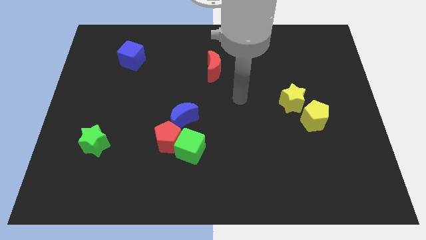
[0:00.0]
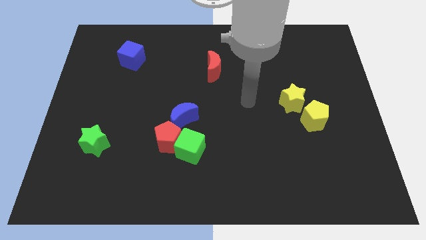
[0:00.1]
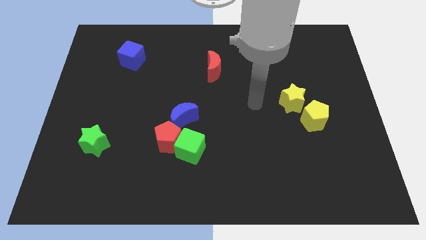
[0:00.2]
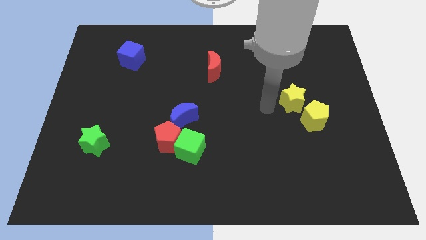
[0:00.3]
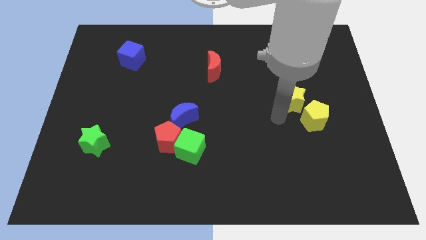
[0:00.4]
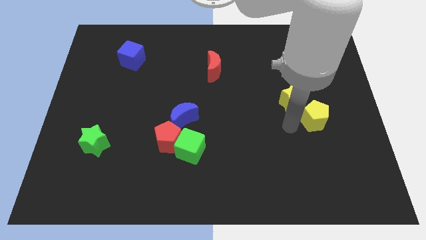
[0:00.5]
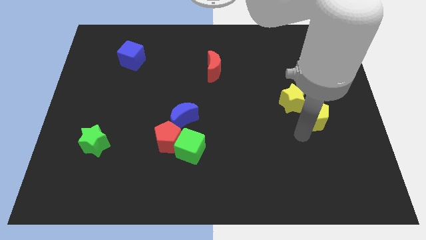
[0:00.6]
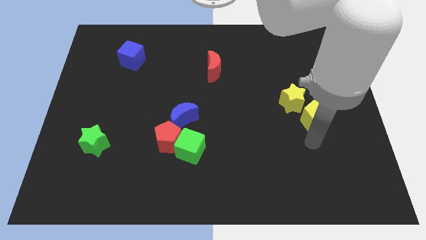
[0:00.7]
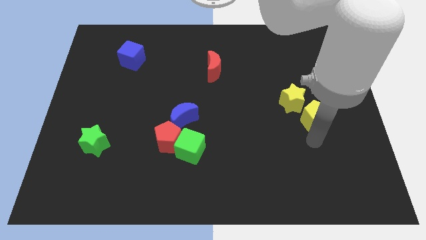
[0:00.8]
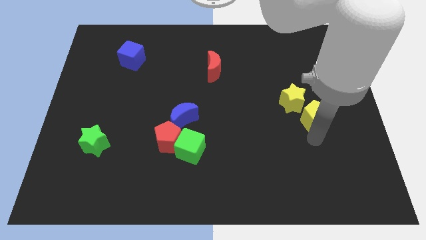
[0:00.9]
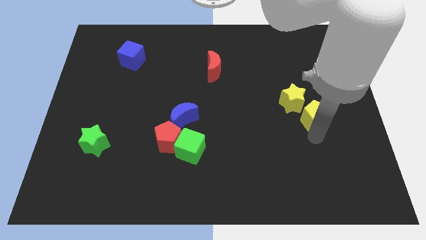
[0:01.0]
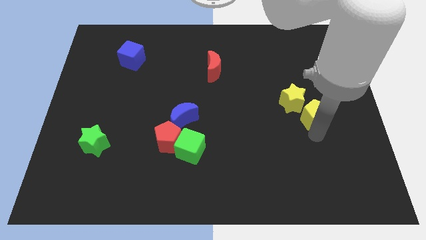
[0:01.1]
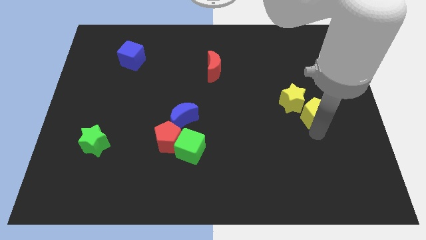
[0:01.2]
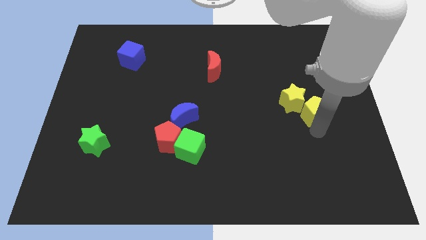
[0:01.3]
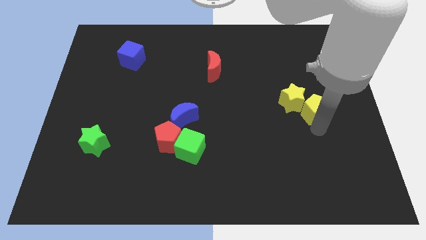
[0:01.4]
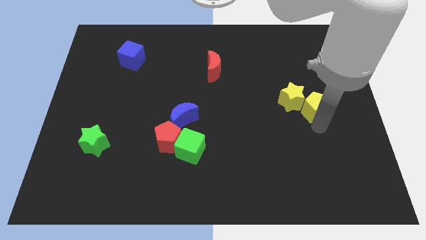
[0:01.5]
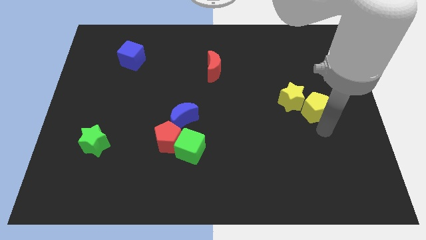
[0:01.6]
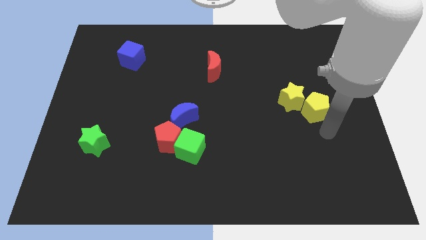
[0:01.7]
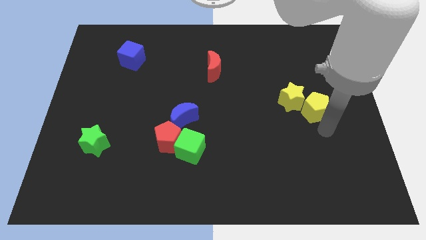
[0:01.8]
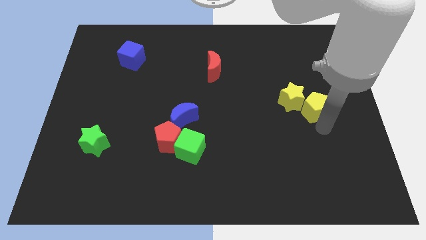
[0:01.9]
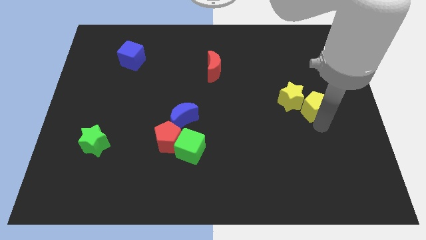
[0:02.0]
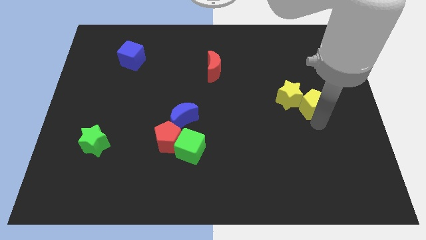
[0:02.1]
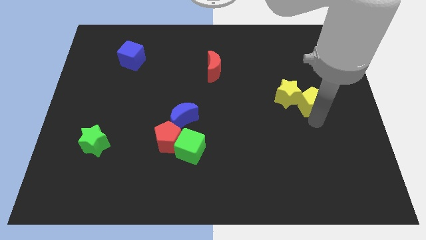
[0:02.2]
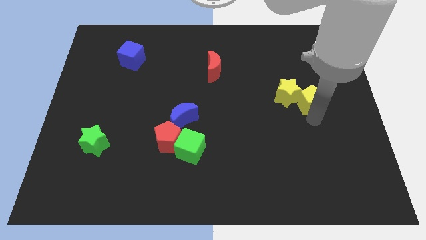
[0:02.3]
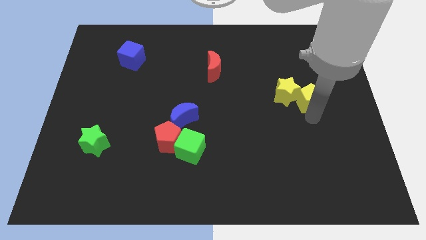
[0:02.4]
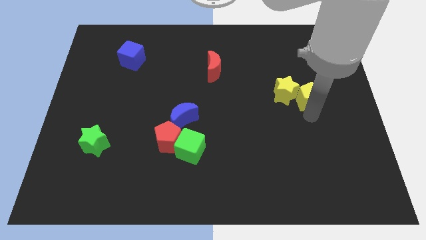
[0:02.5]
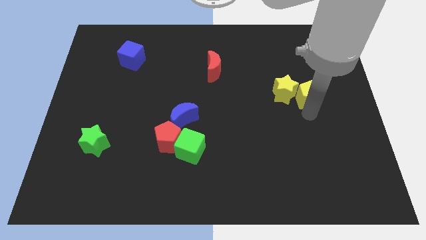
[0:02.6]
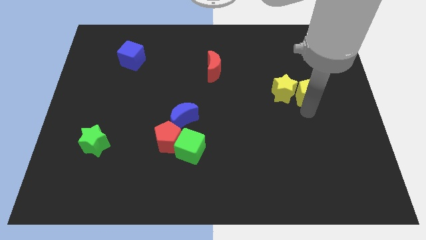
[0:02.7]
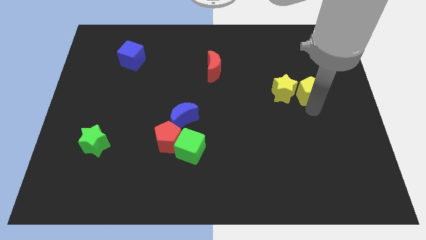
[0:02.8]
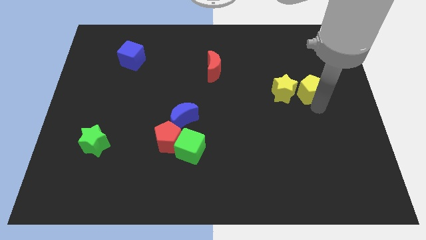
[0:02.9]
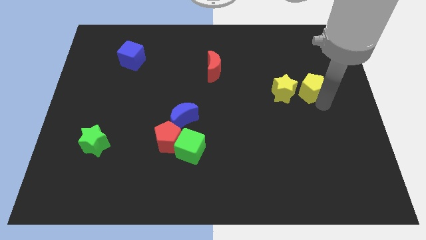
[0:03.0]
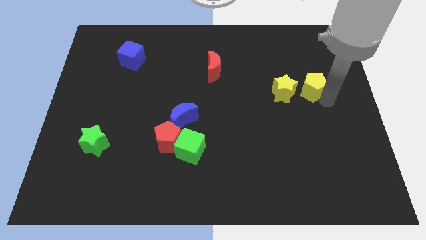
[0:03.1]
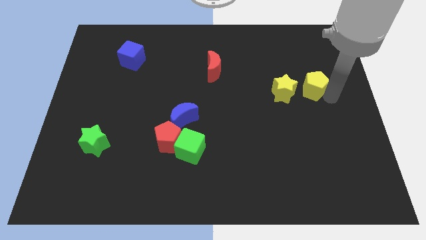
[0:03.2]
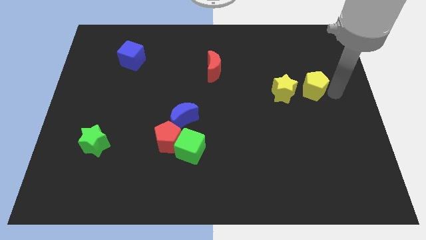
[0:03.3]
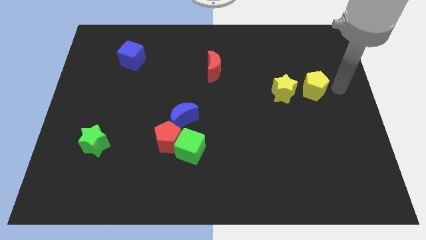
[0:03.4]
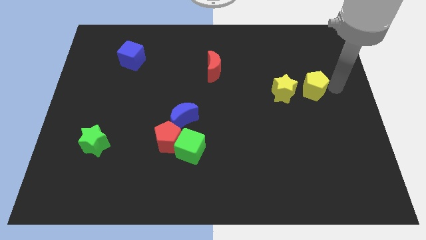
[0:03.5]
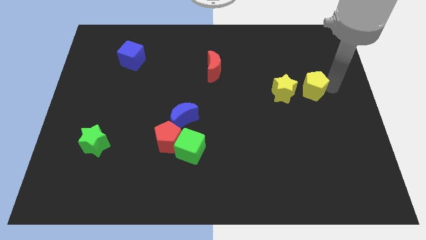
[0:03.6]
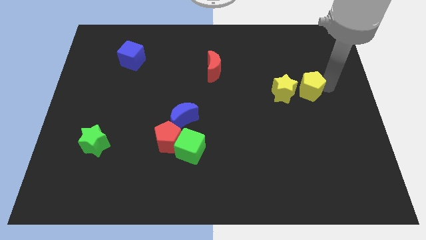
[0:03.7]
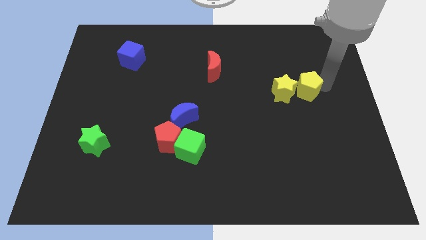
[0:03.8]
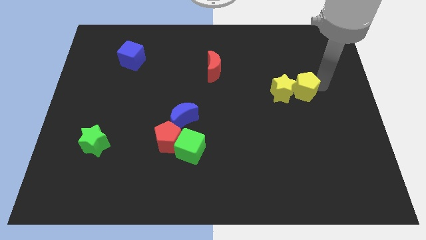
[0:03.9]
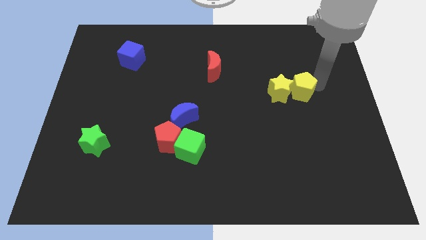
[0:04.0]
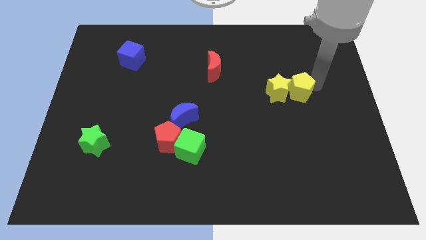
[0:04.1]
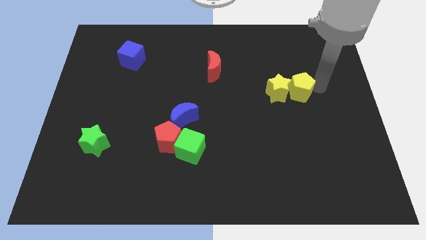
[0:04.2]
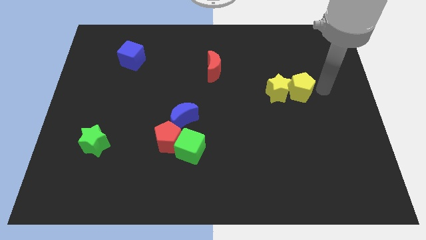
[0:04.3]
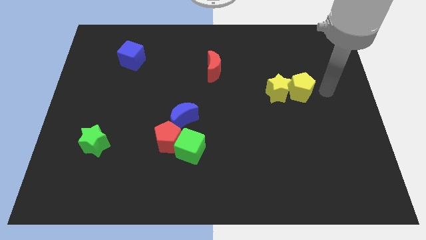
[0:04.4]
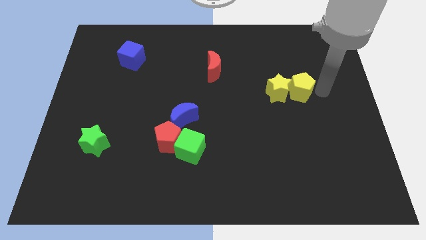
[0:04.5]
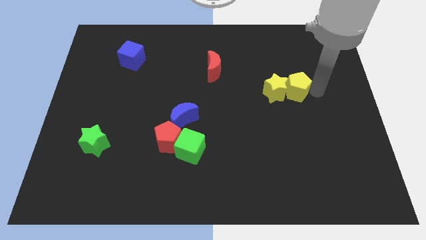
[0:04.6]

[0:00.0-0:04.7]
slightly slide the yellow pentagon up and then to the left

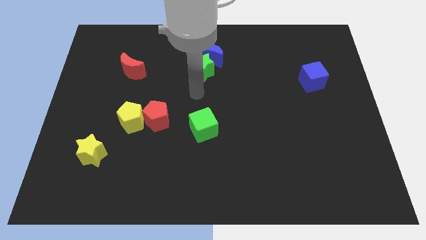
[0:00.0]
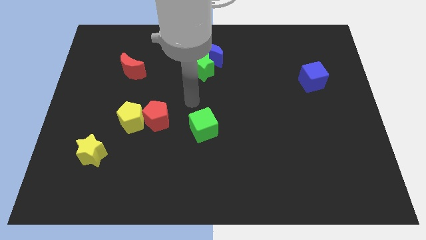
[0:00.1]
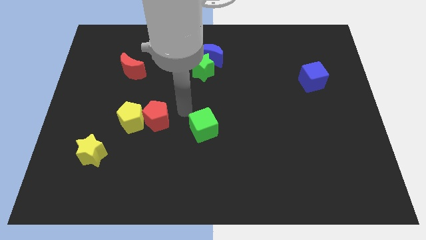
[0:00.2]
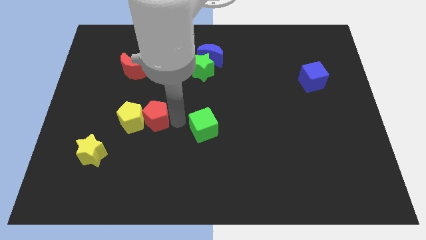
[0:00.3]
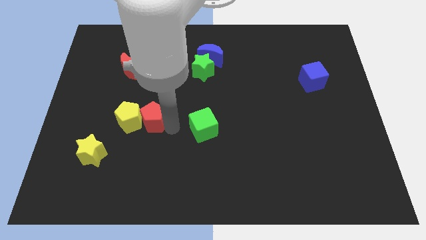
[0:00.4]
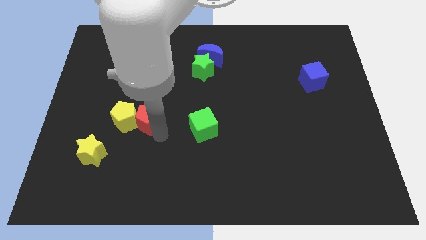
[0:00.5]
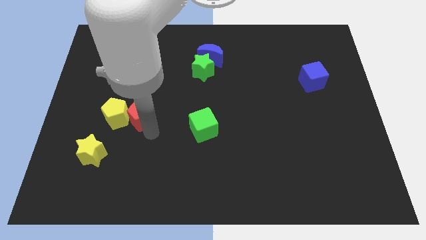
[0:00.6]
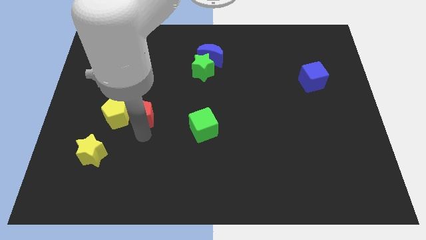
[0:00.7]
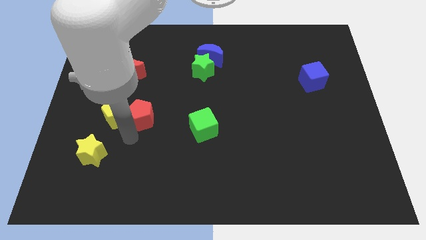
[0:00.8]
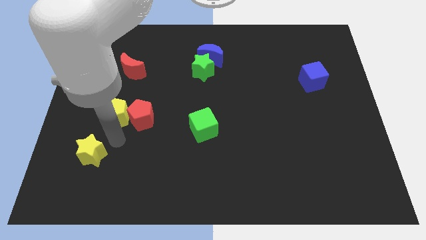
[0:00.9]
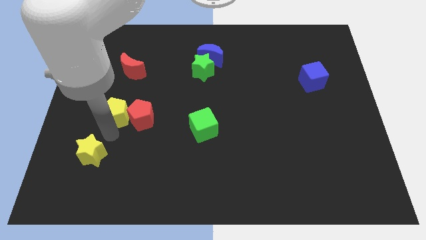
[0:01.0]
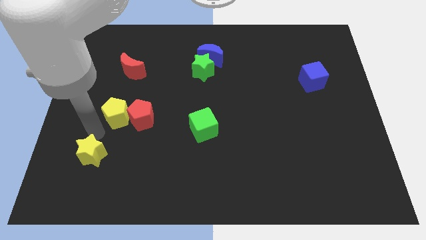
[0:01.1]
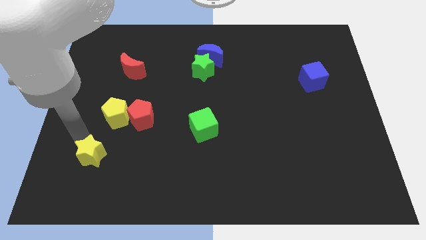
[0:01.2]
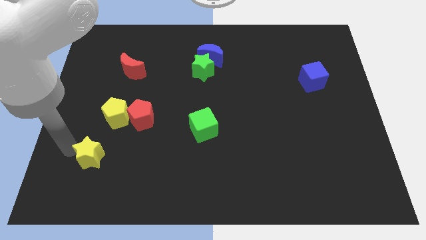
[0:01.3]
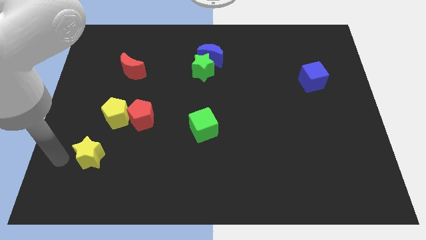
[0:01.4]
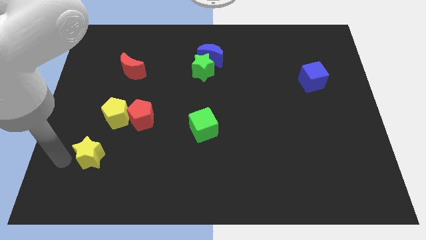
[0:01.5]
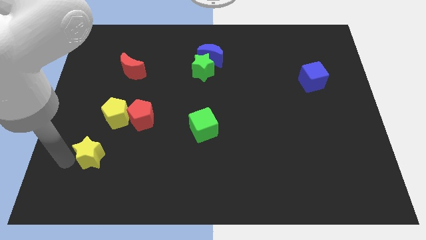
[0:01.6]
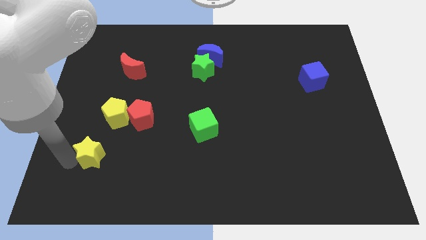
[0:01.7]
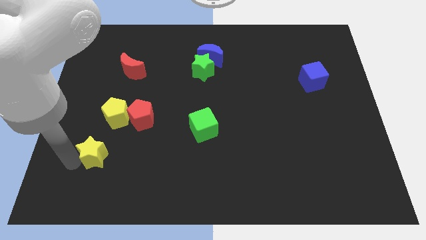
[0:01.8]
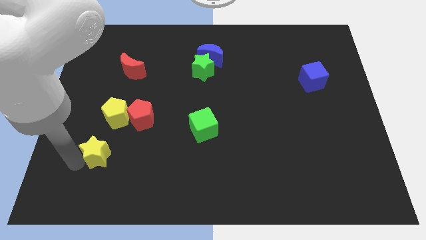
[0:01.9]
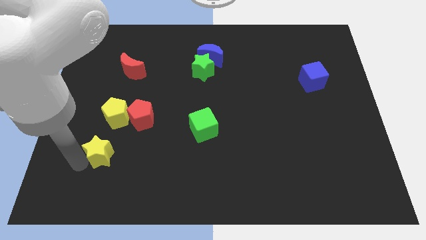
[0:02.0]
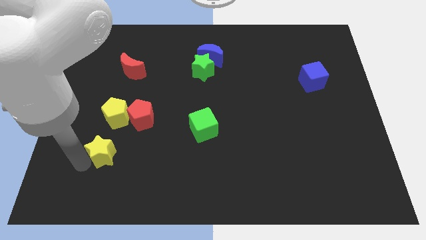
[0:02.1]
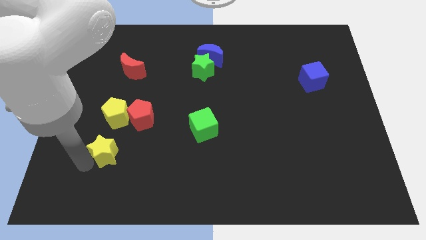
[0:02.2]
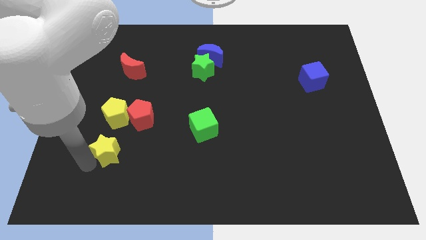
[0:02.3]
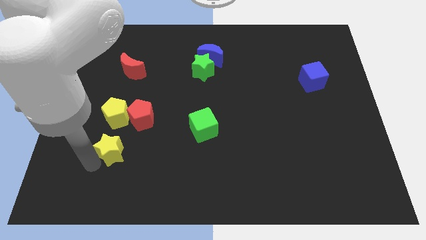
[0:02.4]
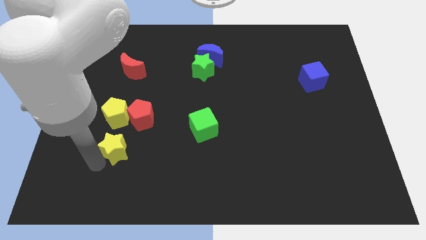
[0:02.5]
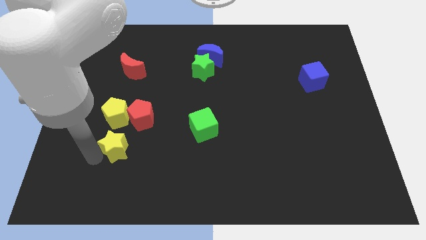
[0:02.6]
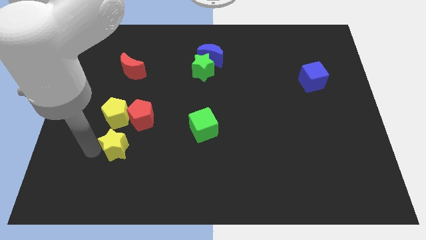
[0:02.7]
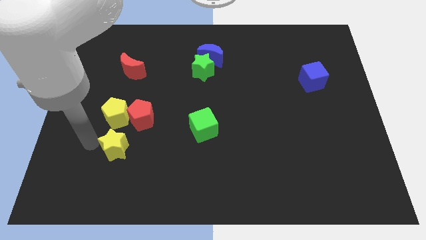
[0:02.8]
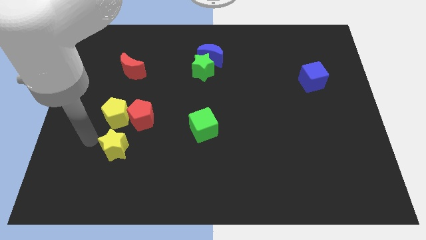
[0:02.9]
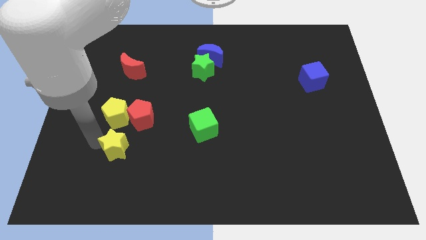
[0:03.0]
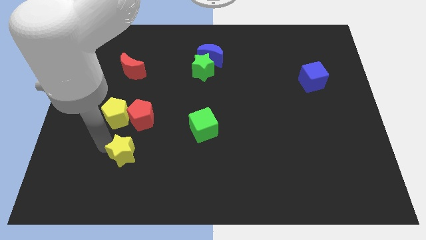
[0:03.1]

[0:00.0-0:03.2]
slightly push the yellow star right
